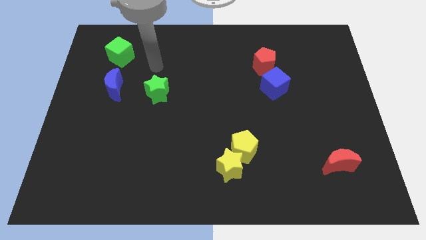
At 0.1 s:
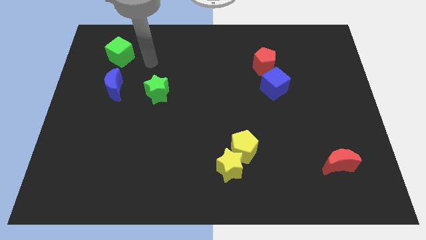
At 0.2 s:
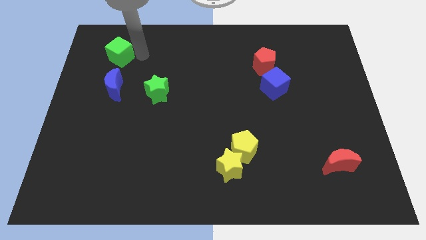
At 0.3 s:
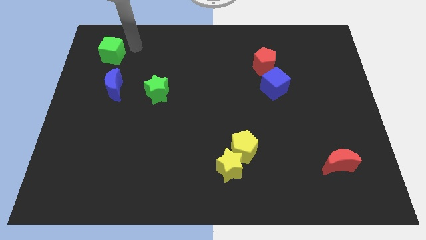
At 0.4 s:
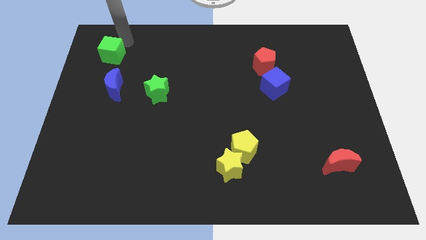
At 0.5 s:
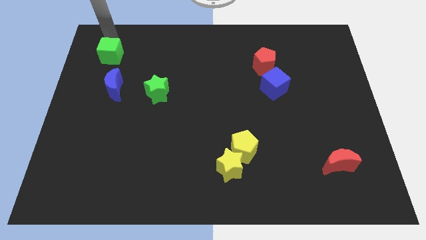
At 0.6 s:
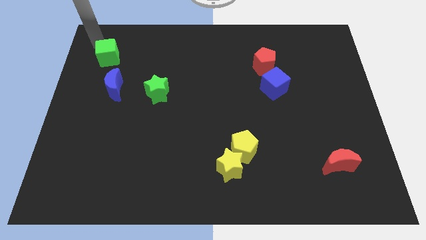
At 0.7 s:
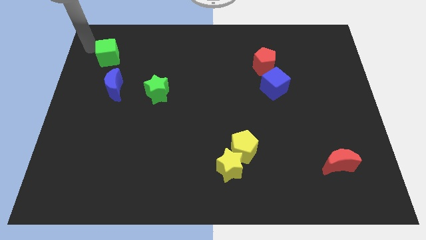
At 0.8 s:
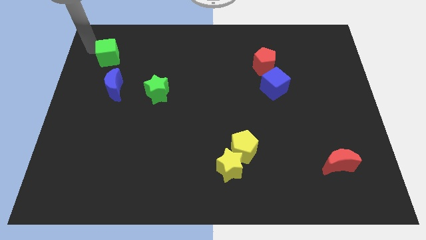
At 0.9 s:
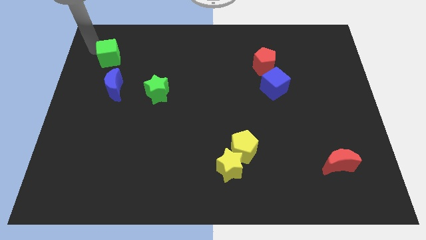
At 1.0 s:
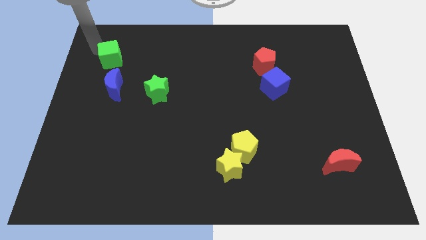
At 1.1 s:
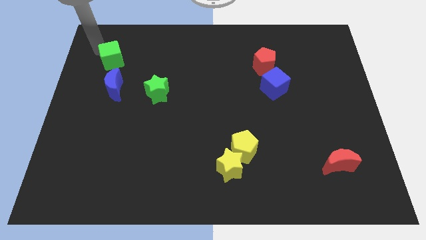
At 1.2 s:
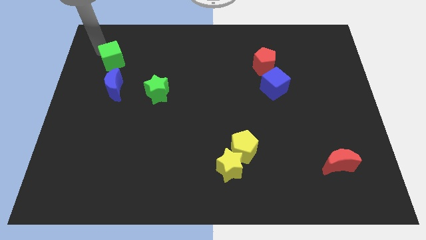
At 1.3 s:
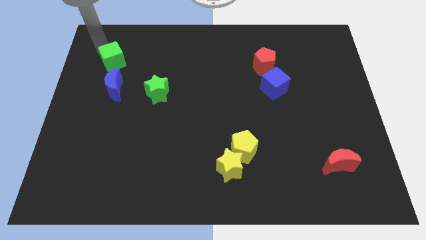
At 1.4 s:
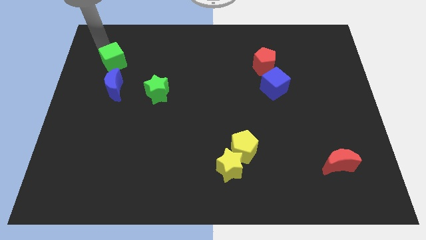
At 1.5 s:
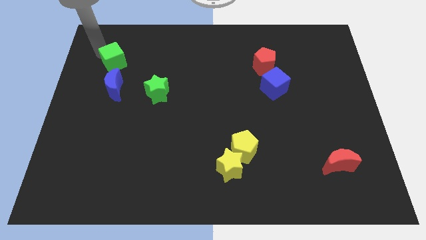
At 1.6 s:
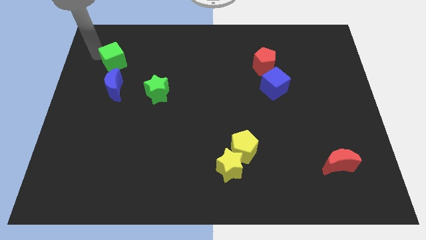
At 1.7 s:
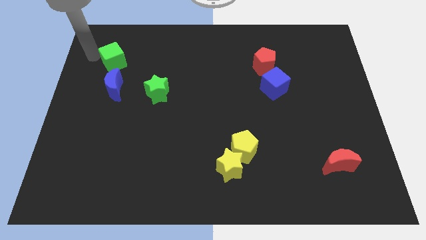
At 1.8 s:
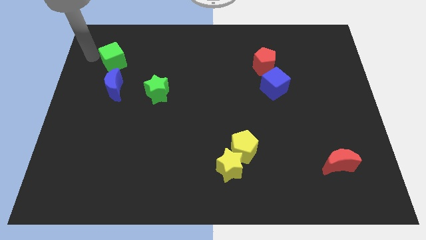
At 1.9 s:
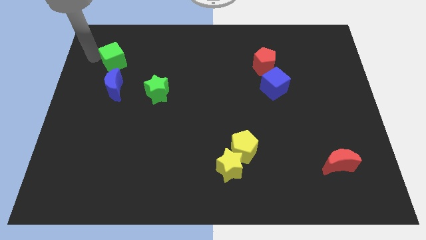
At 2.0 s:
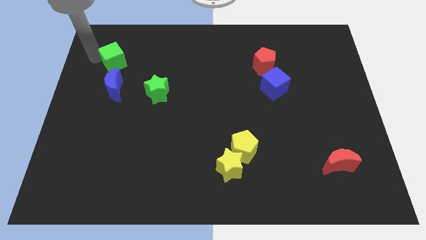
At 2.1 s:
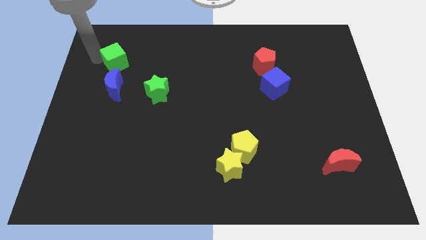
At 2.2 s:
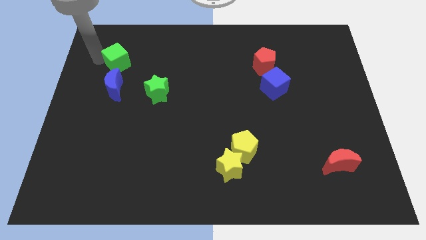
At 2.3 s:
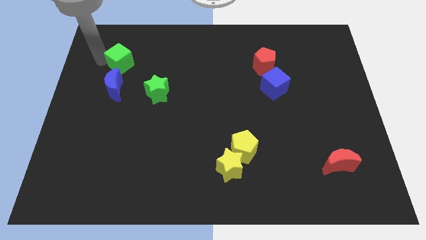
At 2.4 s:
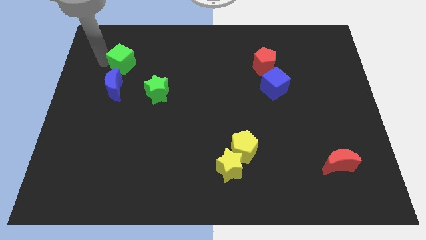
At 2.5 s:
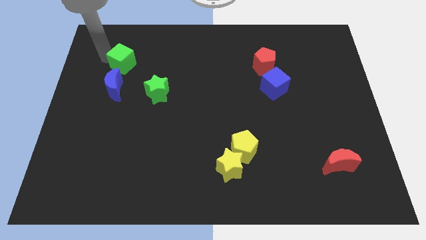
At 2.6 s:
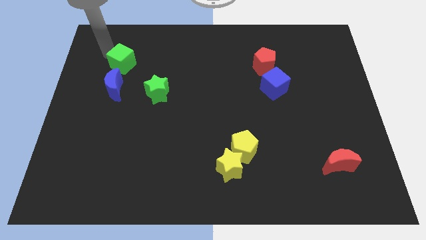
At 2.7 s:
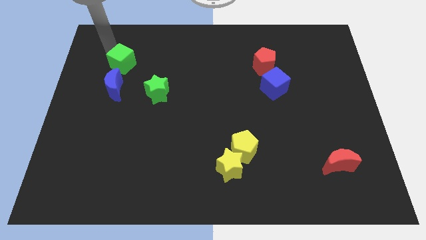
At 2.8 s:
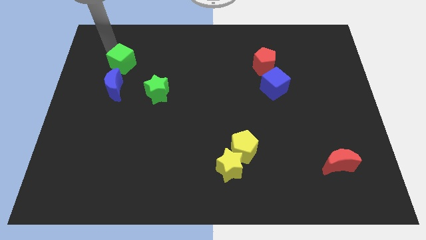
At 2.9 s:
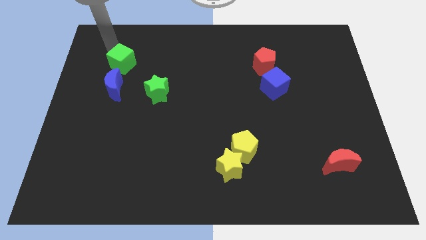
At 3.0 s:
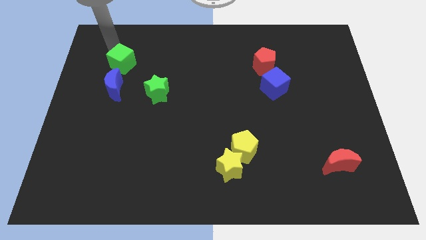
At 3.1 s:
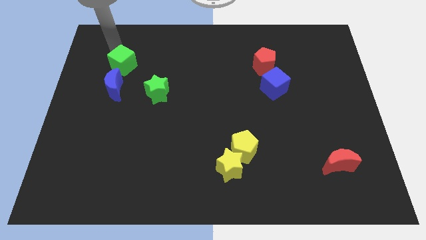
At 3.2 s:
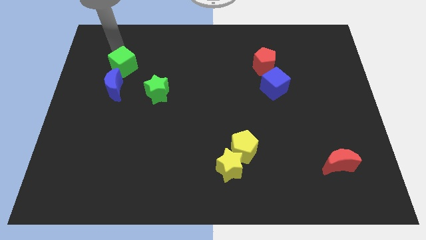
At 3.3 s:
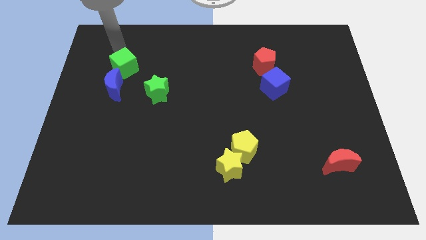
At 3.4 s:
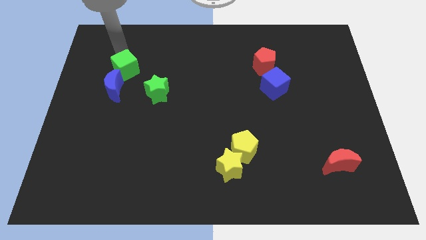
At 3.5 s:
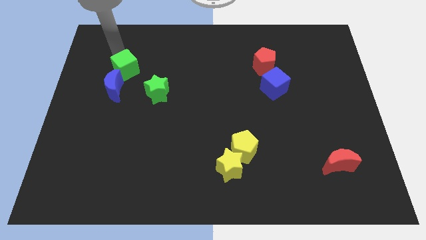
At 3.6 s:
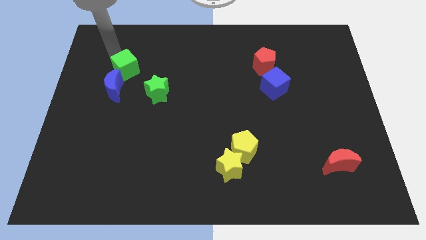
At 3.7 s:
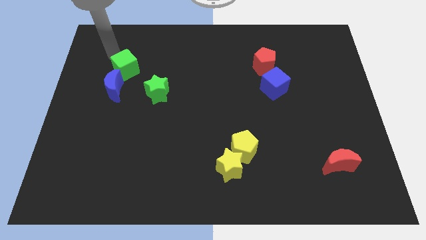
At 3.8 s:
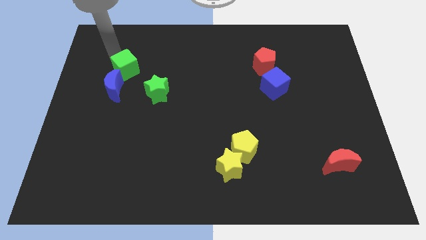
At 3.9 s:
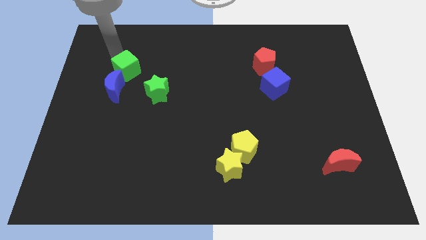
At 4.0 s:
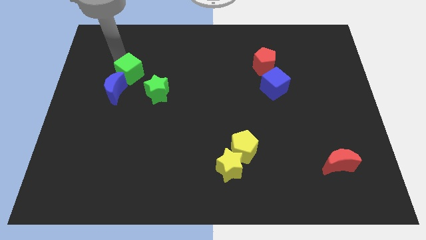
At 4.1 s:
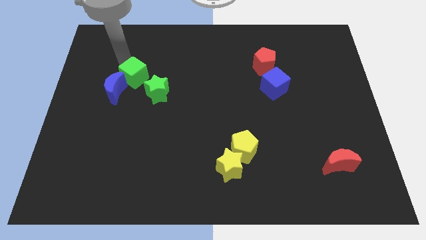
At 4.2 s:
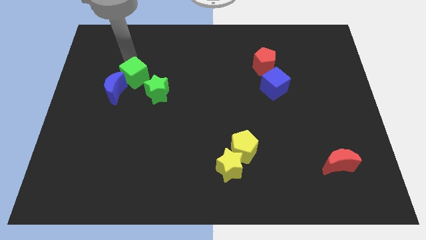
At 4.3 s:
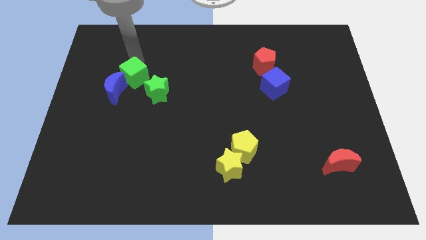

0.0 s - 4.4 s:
push the green cube down a little

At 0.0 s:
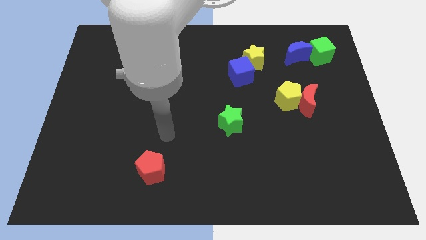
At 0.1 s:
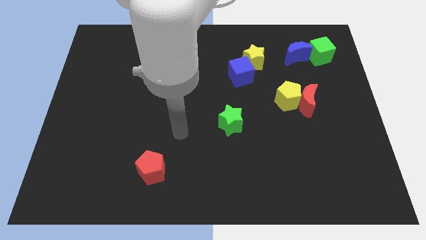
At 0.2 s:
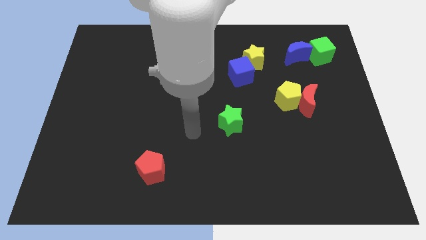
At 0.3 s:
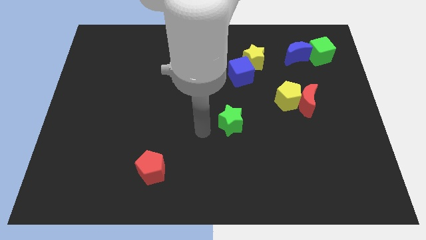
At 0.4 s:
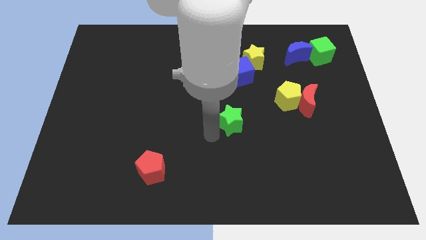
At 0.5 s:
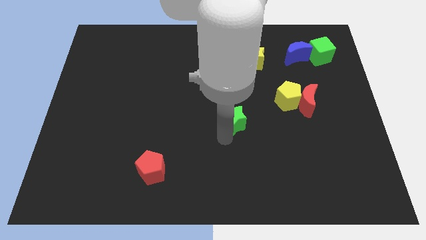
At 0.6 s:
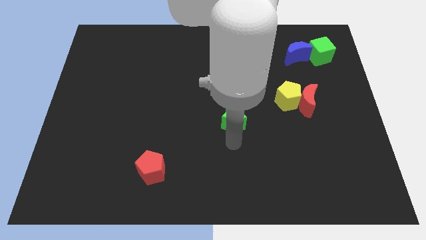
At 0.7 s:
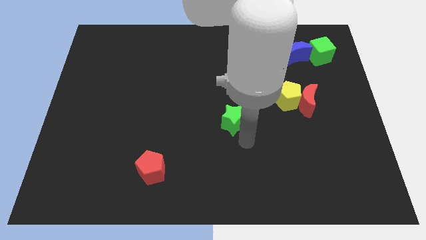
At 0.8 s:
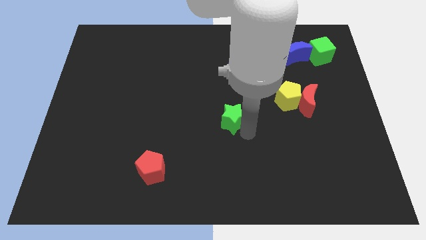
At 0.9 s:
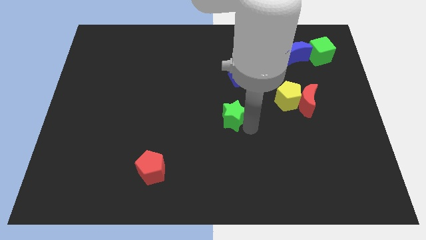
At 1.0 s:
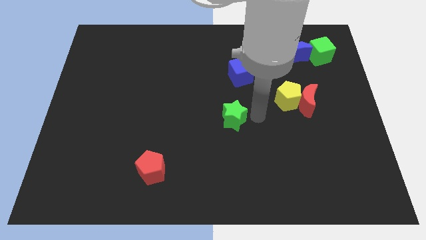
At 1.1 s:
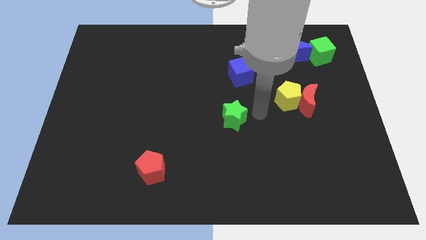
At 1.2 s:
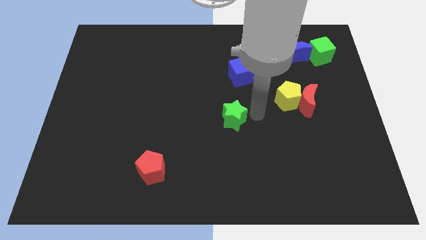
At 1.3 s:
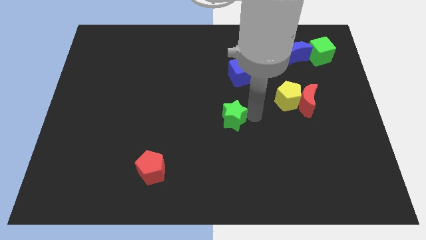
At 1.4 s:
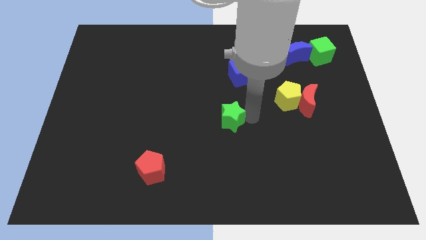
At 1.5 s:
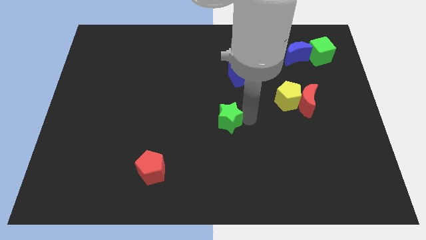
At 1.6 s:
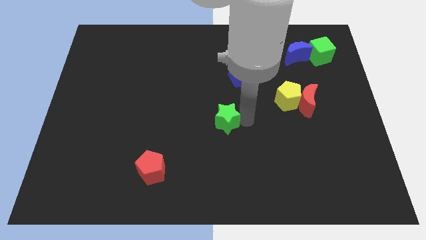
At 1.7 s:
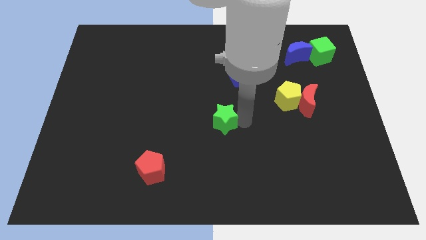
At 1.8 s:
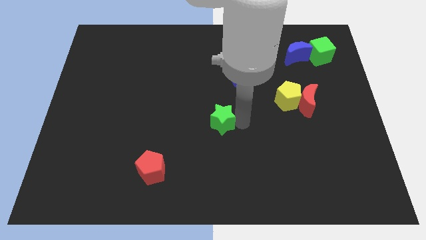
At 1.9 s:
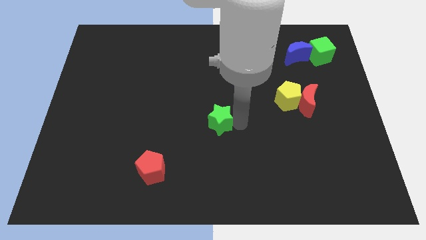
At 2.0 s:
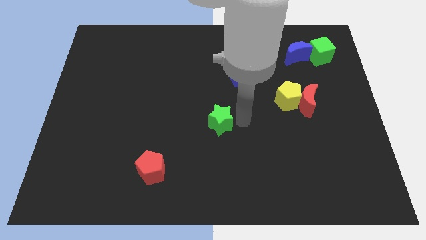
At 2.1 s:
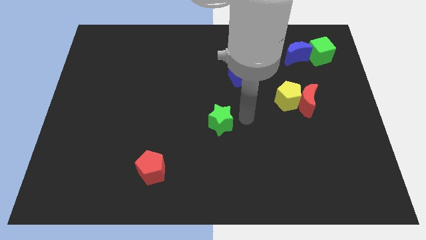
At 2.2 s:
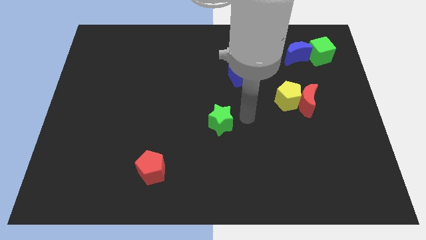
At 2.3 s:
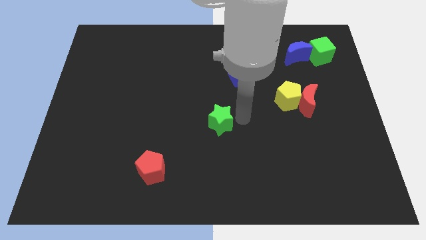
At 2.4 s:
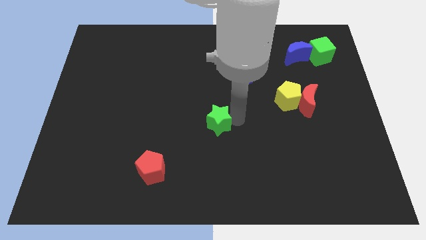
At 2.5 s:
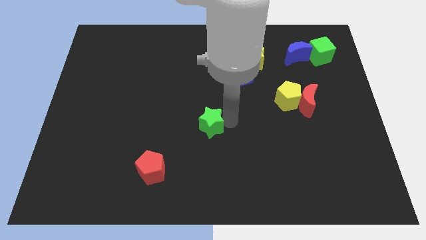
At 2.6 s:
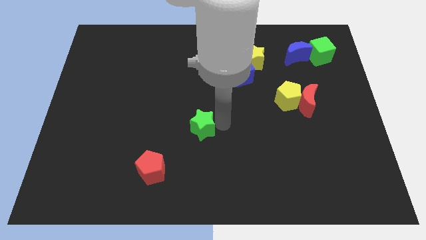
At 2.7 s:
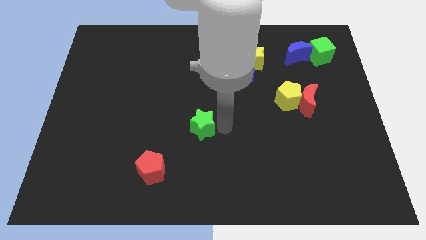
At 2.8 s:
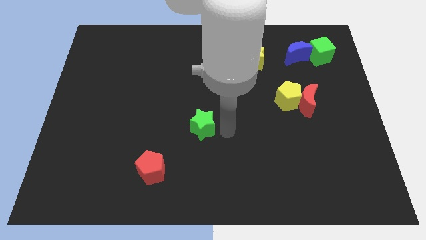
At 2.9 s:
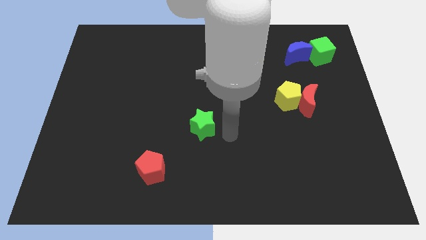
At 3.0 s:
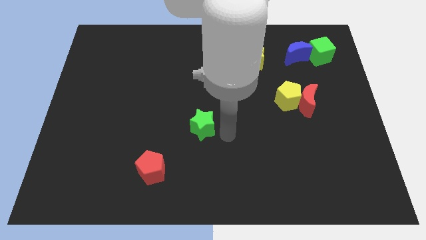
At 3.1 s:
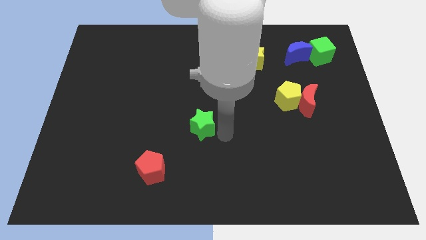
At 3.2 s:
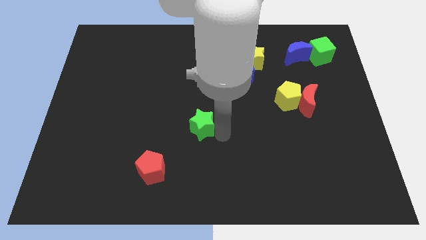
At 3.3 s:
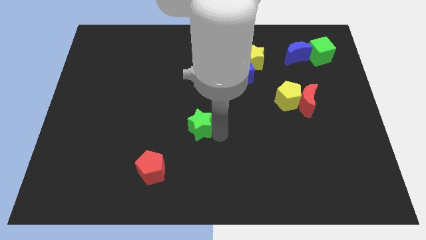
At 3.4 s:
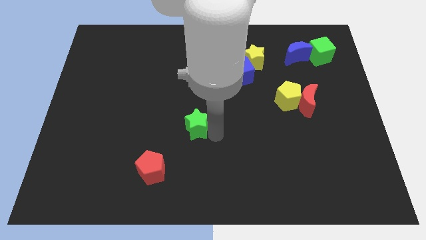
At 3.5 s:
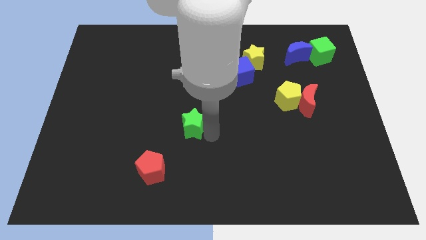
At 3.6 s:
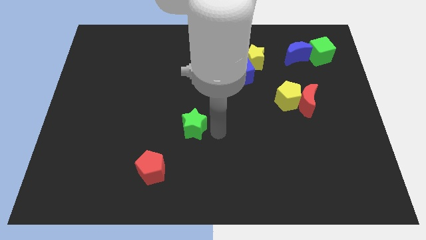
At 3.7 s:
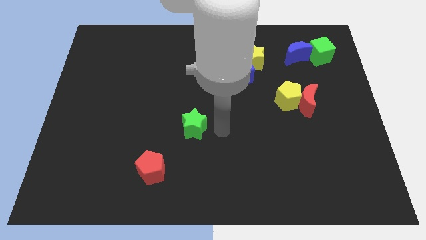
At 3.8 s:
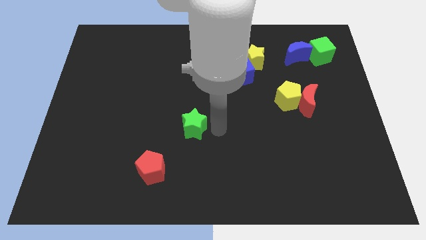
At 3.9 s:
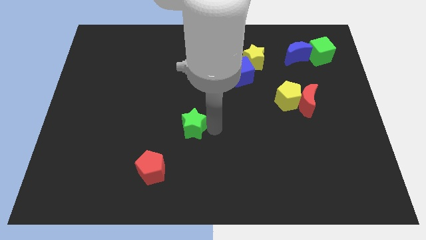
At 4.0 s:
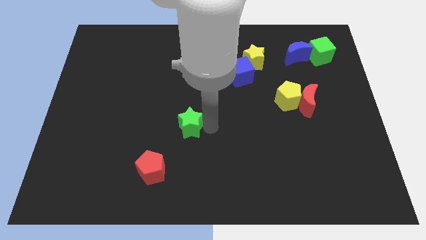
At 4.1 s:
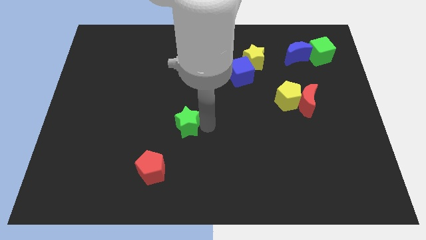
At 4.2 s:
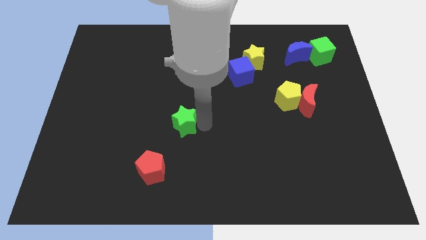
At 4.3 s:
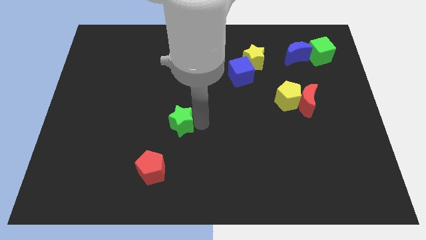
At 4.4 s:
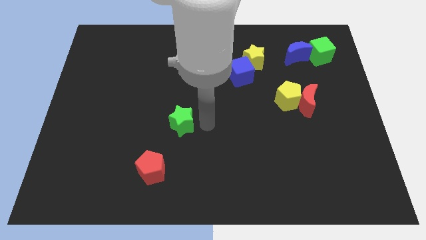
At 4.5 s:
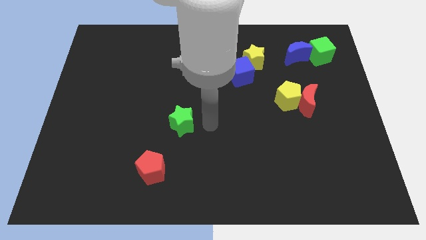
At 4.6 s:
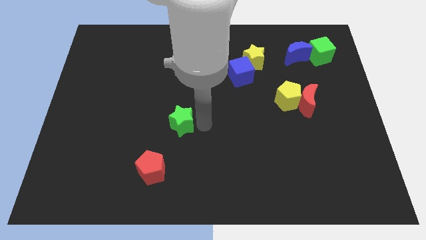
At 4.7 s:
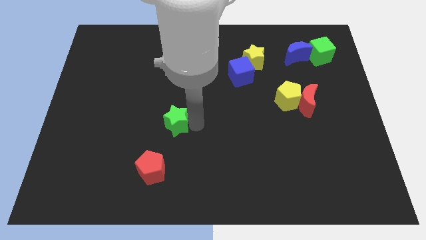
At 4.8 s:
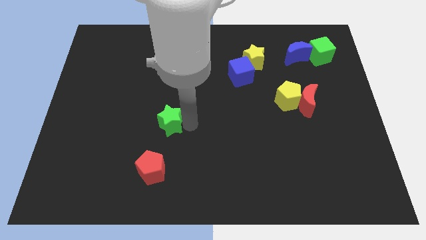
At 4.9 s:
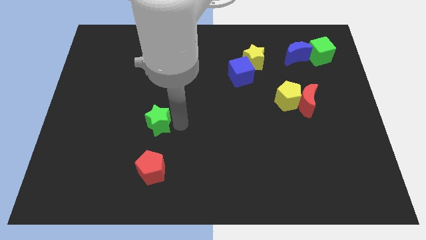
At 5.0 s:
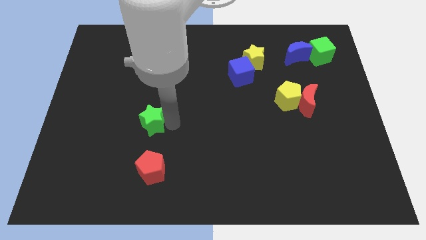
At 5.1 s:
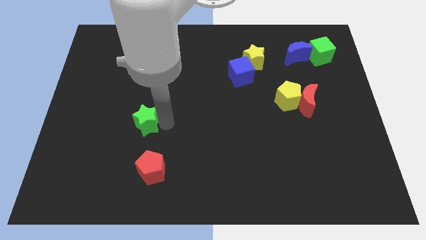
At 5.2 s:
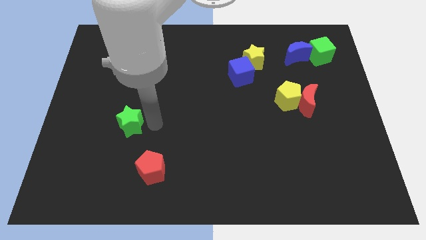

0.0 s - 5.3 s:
move the green star left
